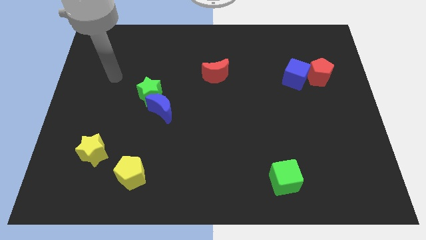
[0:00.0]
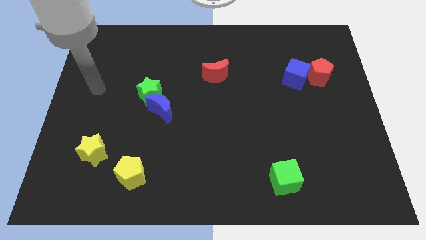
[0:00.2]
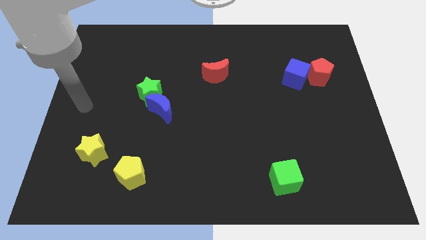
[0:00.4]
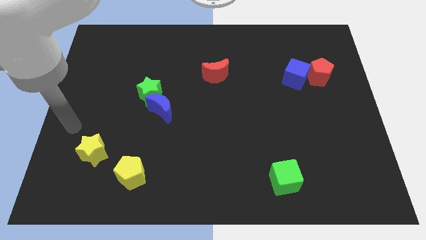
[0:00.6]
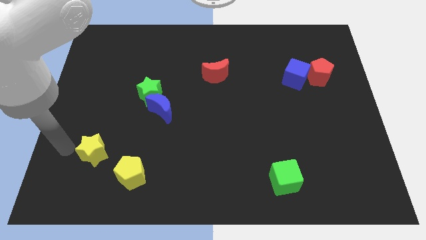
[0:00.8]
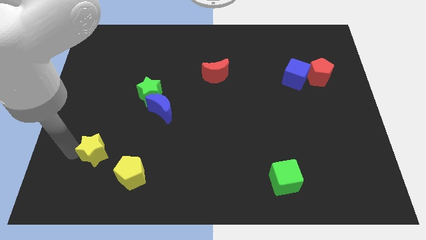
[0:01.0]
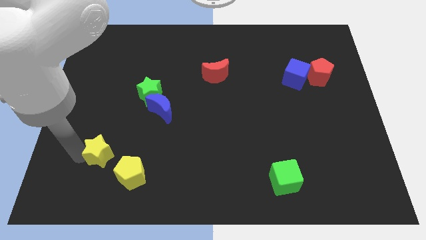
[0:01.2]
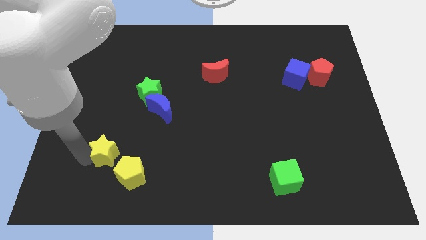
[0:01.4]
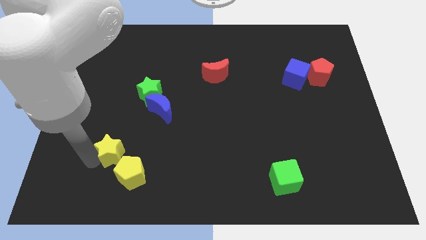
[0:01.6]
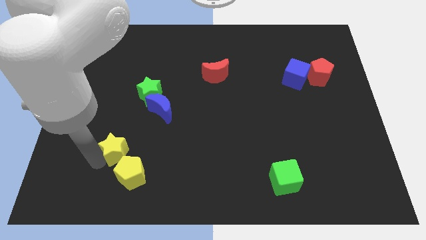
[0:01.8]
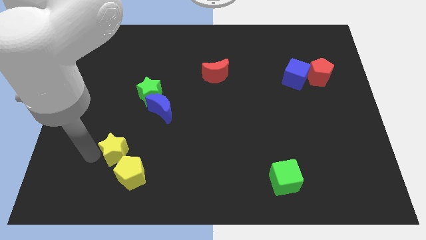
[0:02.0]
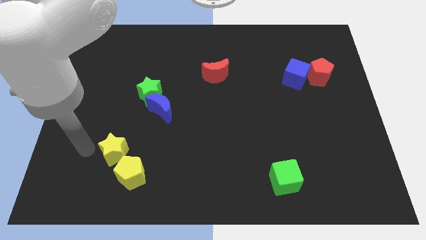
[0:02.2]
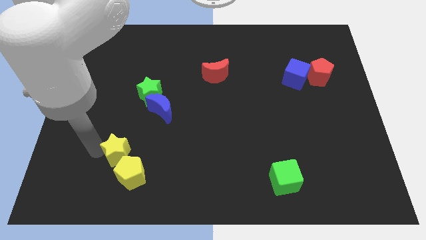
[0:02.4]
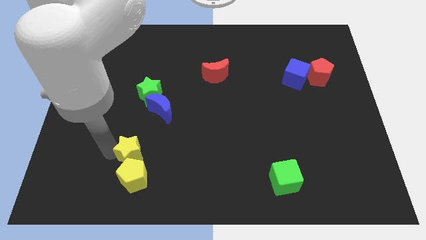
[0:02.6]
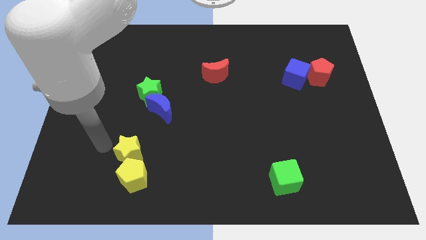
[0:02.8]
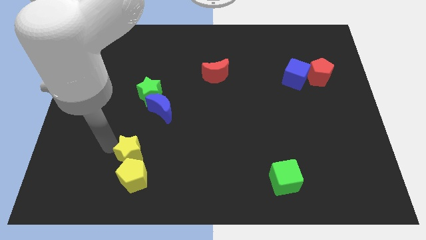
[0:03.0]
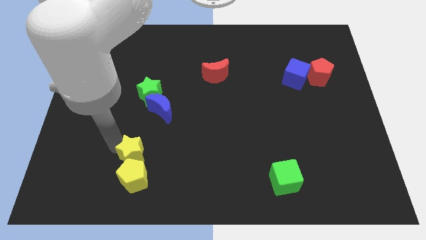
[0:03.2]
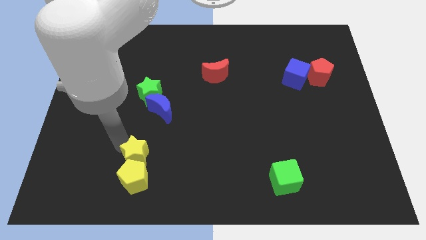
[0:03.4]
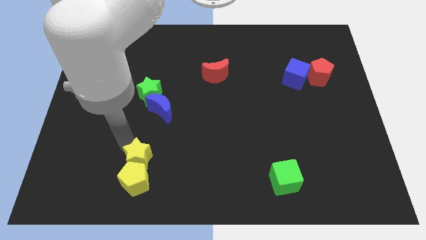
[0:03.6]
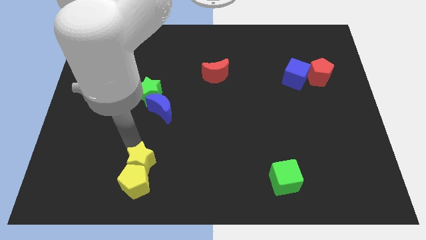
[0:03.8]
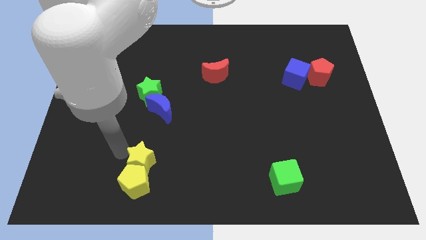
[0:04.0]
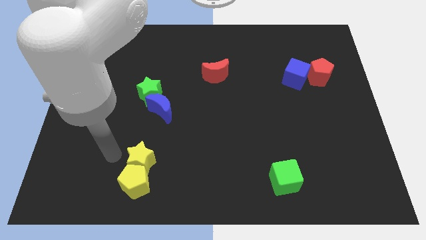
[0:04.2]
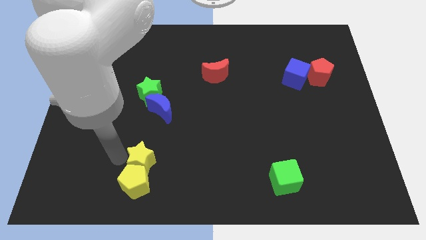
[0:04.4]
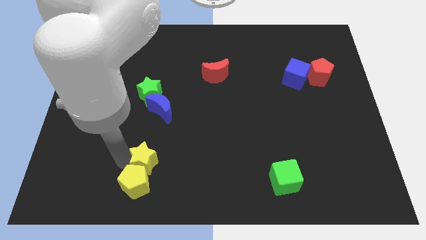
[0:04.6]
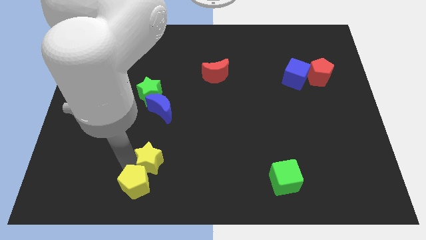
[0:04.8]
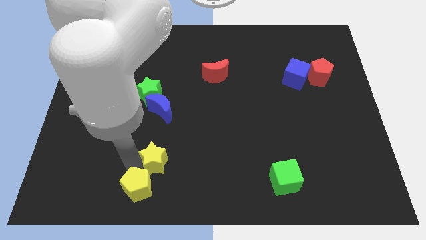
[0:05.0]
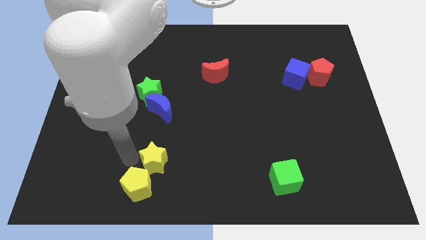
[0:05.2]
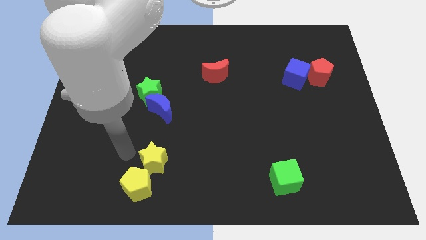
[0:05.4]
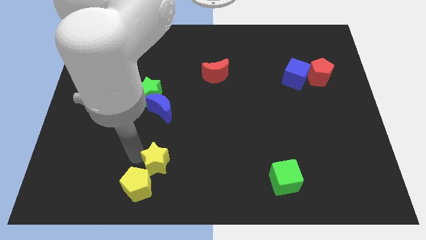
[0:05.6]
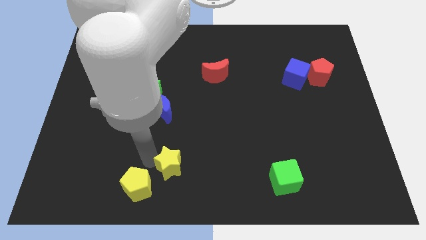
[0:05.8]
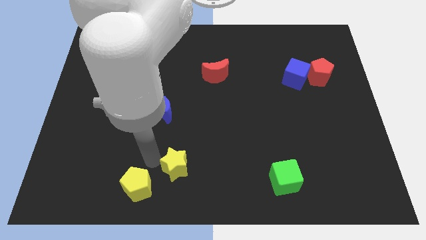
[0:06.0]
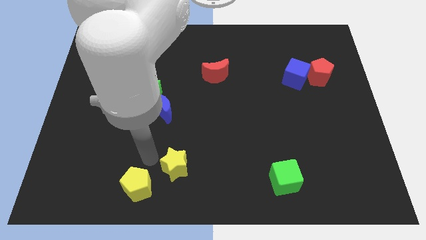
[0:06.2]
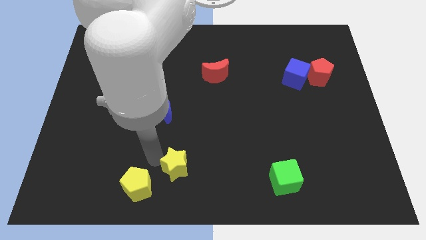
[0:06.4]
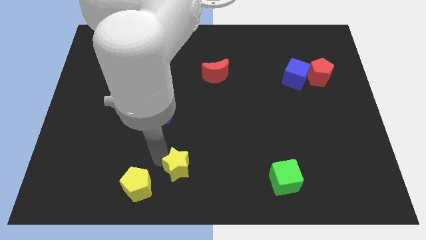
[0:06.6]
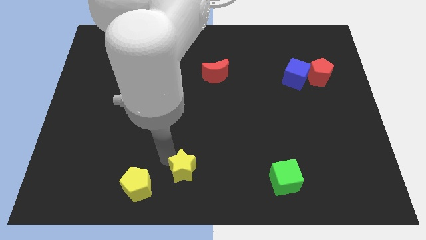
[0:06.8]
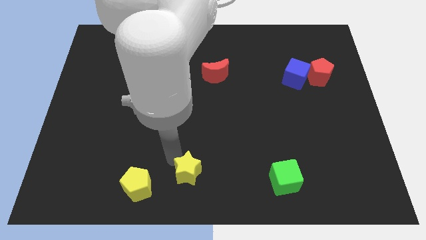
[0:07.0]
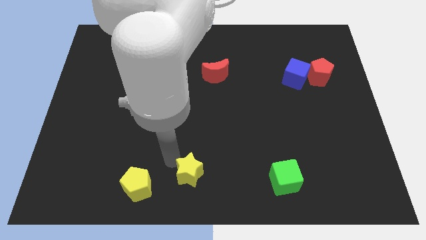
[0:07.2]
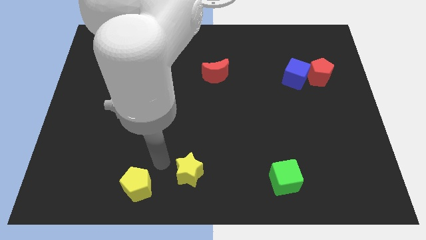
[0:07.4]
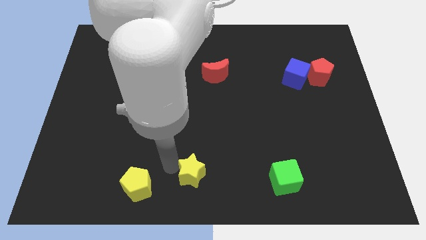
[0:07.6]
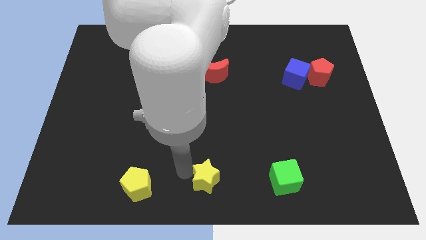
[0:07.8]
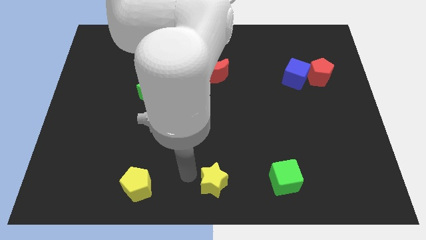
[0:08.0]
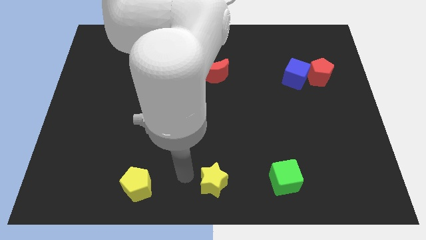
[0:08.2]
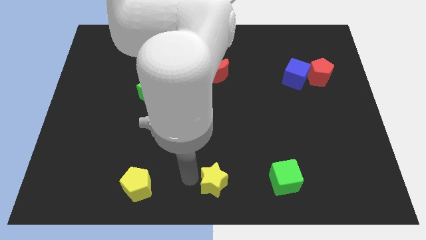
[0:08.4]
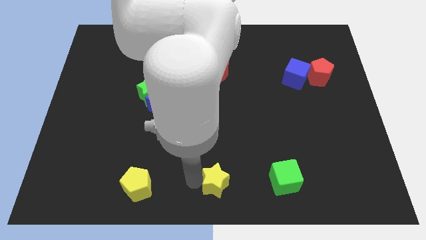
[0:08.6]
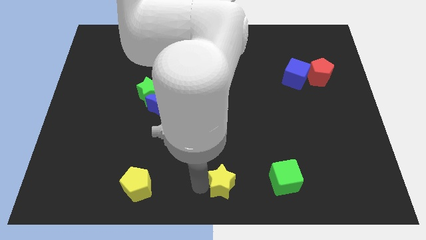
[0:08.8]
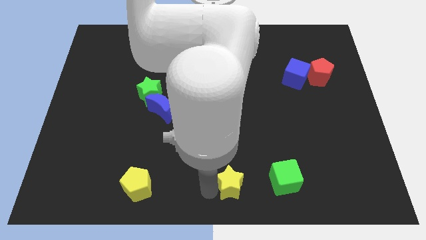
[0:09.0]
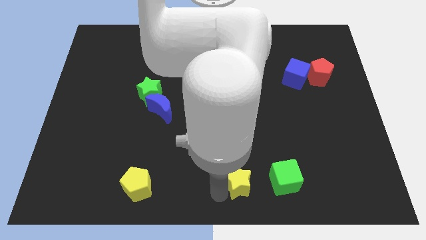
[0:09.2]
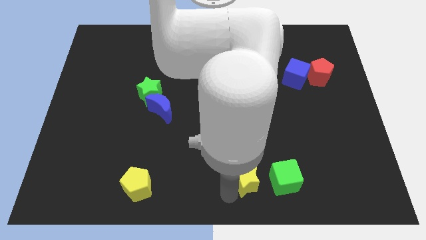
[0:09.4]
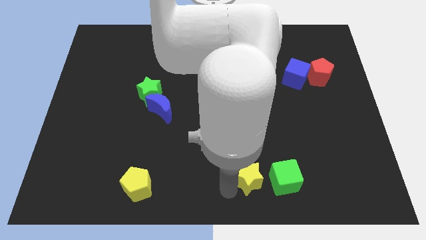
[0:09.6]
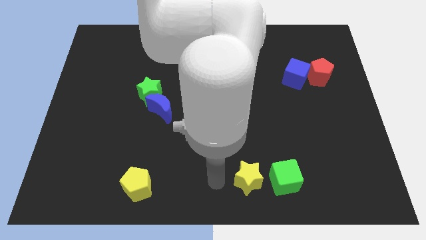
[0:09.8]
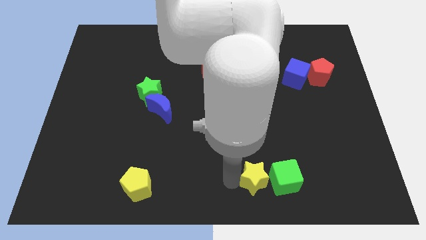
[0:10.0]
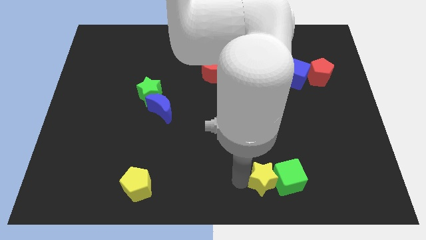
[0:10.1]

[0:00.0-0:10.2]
push the yellow star close to the green cube

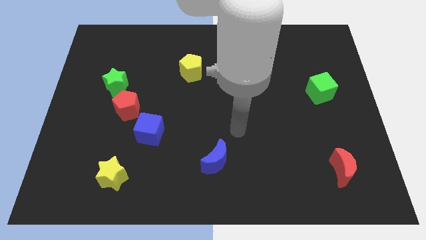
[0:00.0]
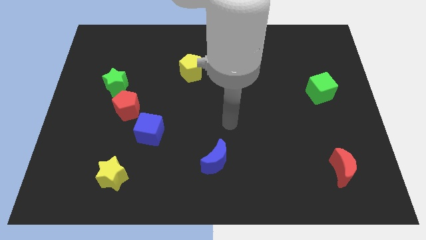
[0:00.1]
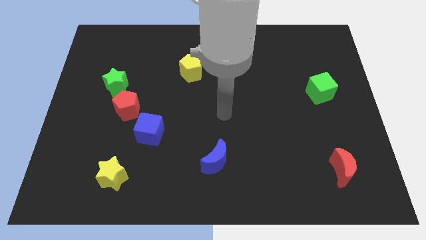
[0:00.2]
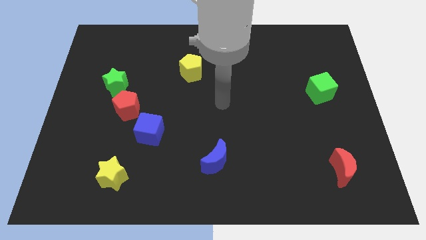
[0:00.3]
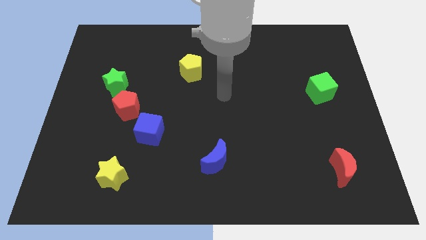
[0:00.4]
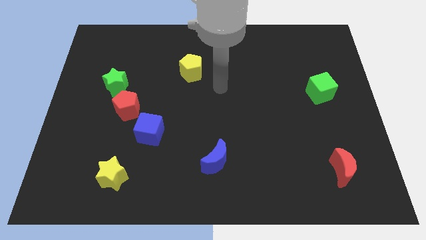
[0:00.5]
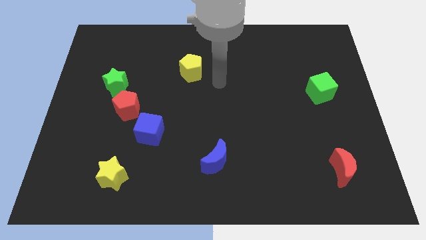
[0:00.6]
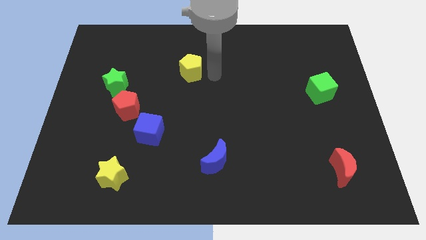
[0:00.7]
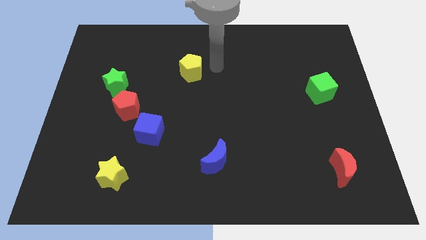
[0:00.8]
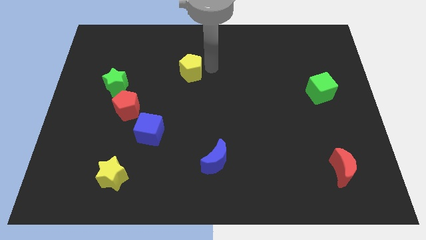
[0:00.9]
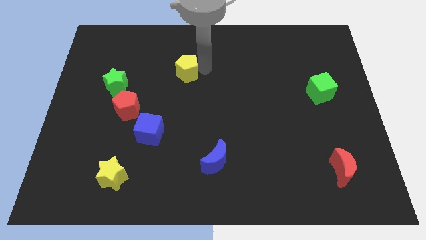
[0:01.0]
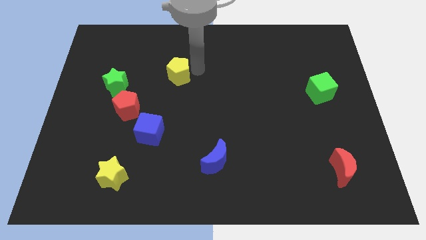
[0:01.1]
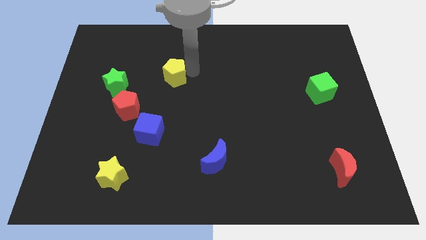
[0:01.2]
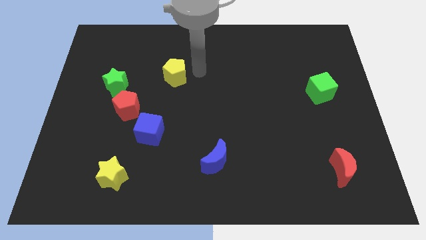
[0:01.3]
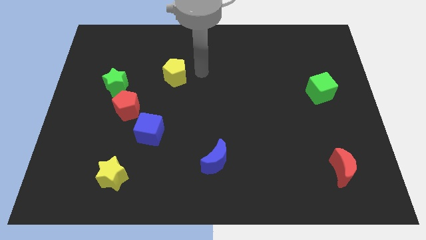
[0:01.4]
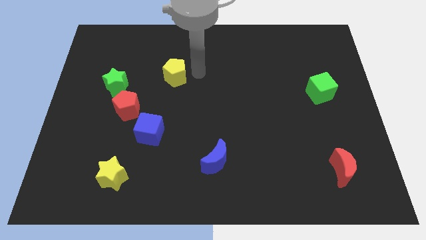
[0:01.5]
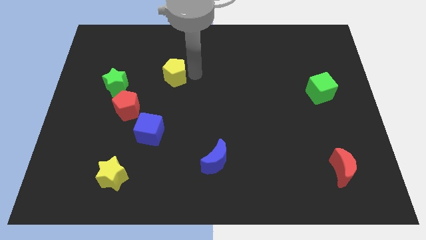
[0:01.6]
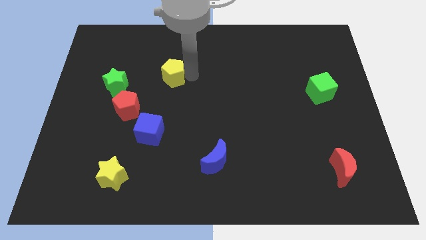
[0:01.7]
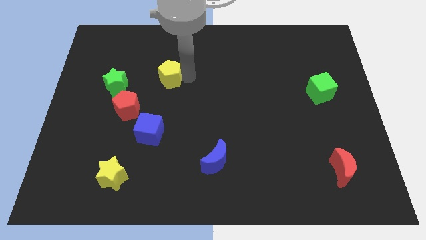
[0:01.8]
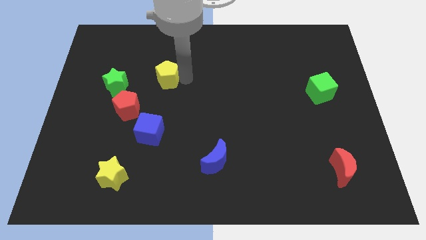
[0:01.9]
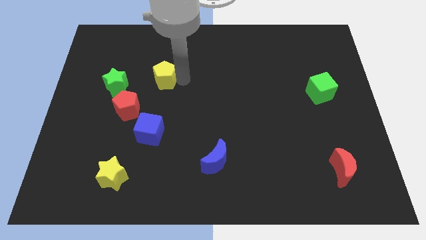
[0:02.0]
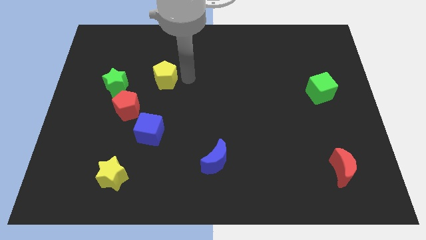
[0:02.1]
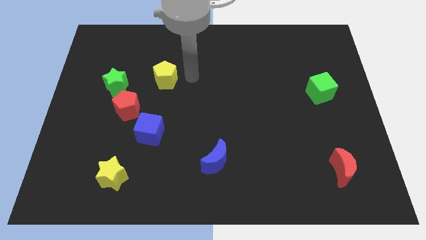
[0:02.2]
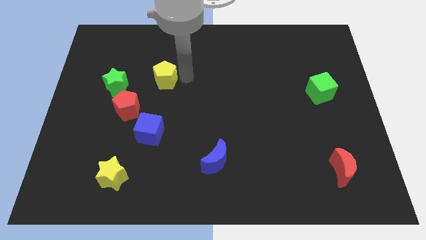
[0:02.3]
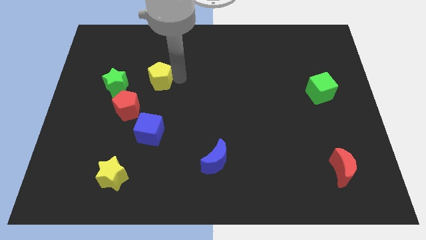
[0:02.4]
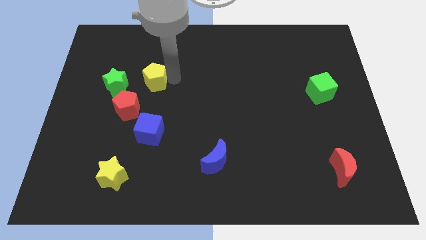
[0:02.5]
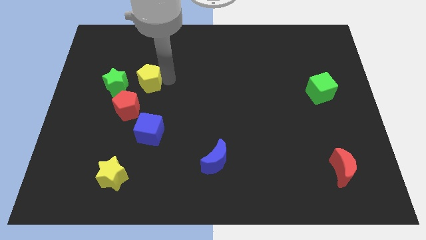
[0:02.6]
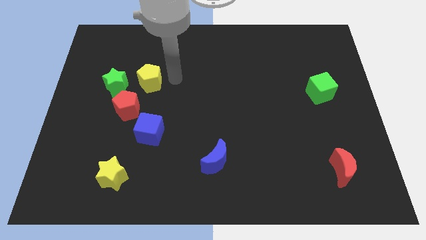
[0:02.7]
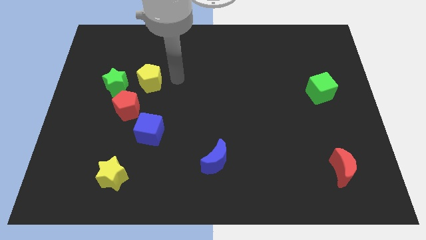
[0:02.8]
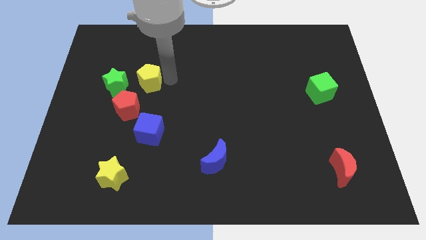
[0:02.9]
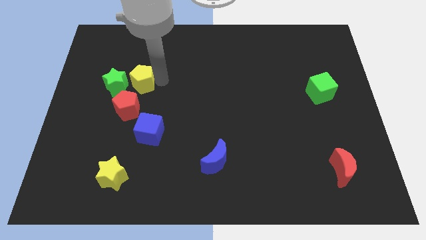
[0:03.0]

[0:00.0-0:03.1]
push the yellow pentagon to the green star
